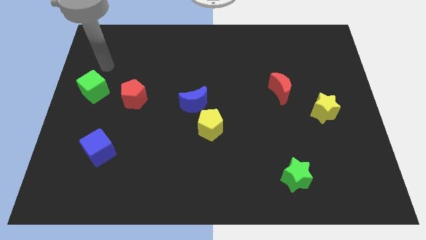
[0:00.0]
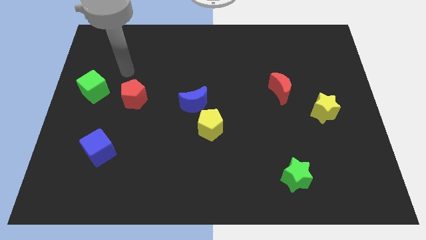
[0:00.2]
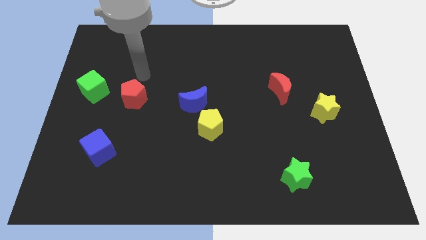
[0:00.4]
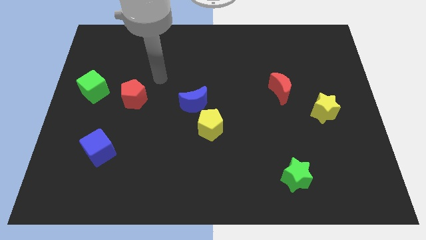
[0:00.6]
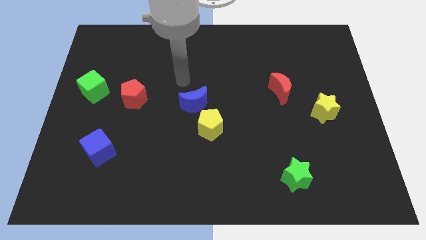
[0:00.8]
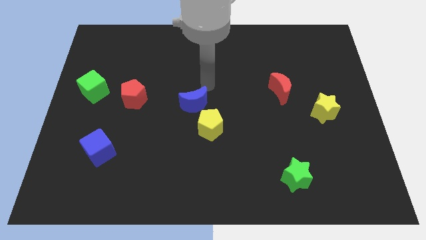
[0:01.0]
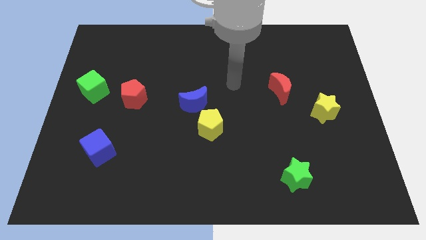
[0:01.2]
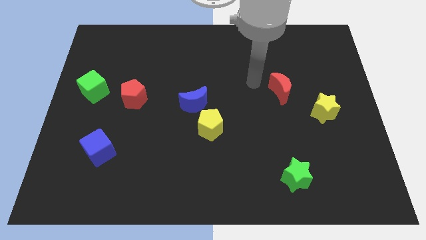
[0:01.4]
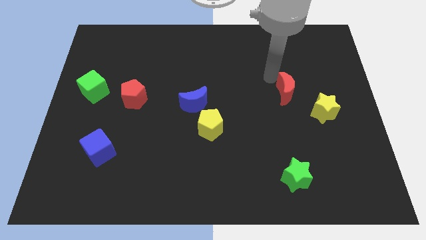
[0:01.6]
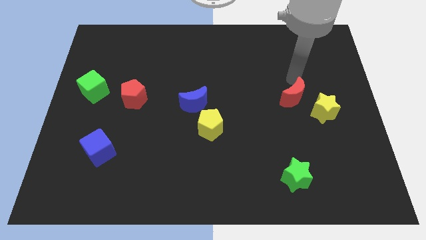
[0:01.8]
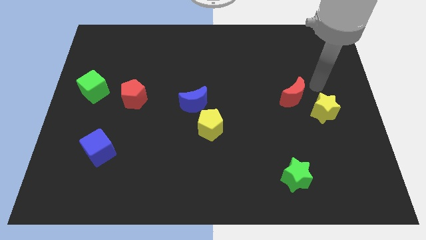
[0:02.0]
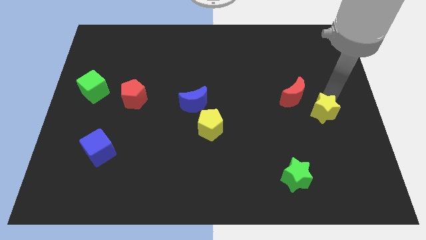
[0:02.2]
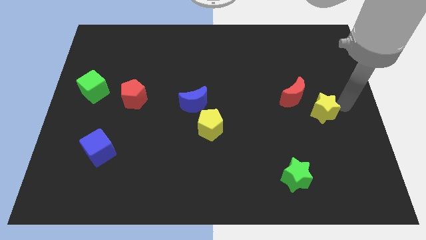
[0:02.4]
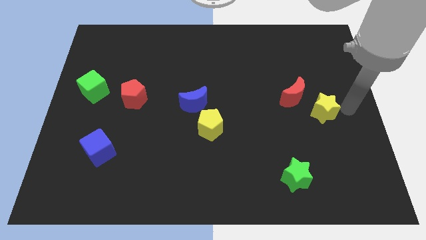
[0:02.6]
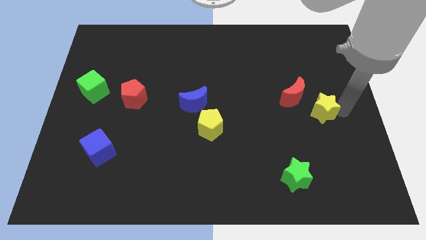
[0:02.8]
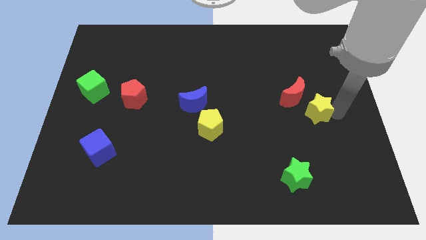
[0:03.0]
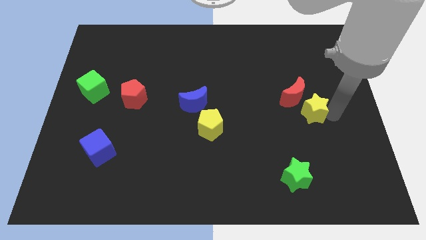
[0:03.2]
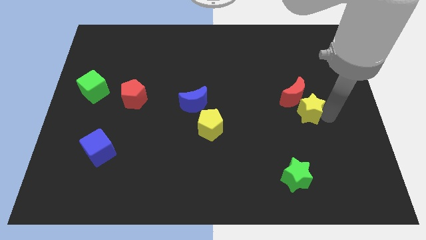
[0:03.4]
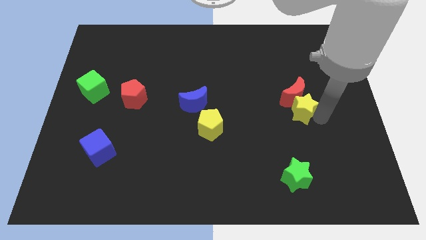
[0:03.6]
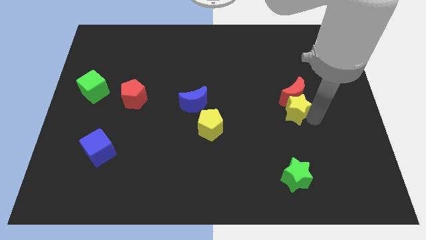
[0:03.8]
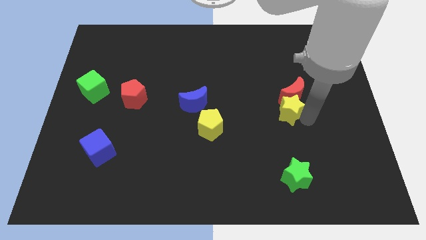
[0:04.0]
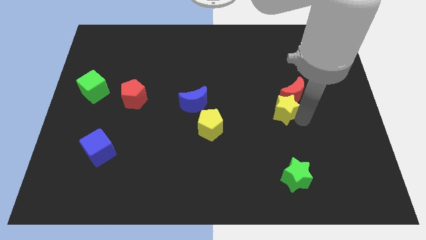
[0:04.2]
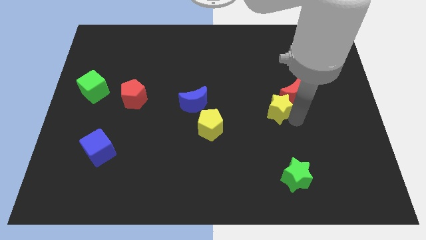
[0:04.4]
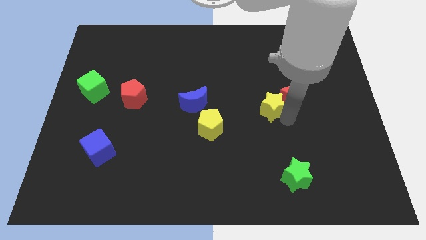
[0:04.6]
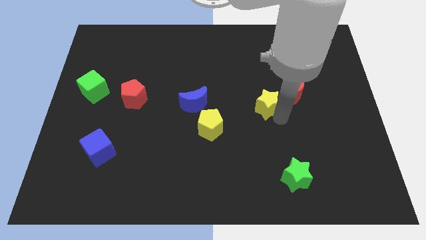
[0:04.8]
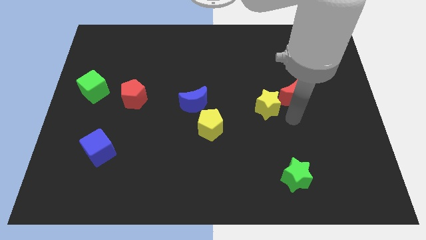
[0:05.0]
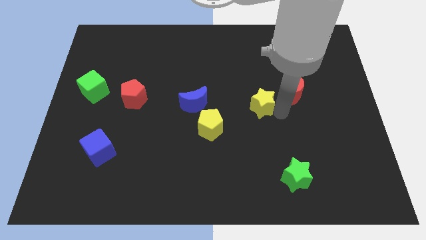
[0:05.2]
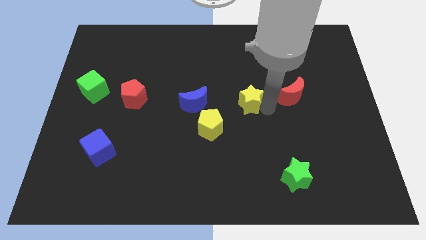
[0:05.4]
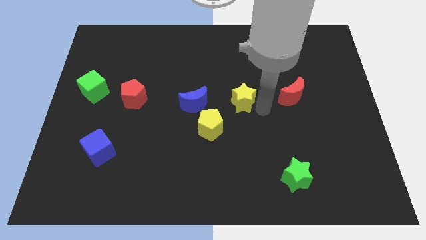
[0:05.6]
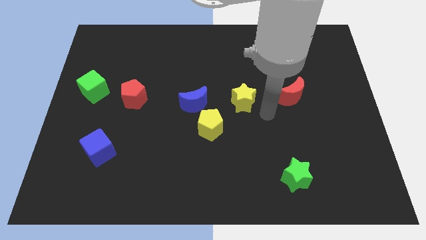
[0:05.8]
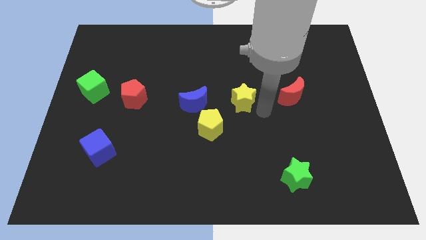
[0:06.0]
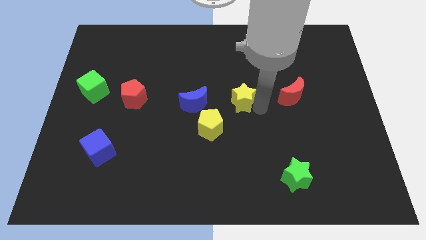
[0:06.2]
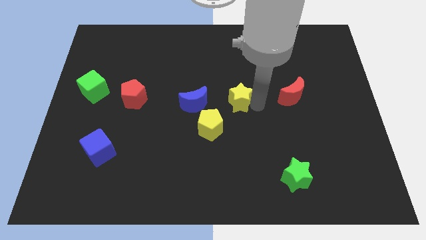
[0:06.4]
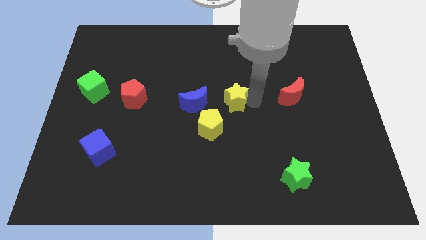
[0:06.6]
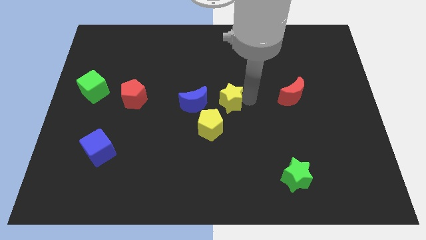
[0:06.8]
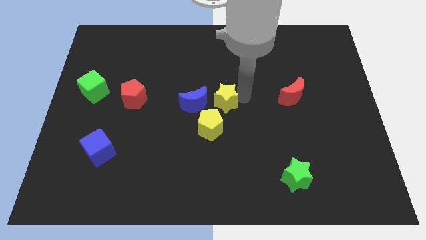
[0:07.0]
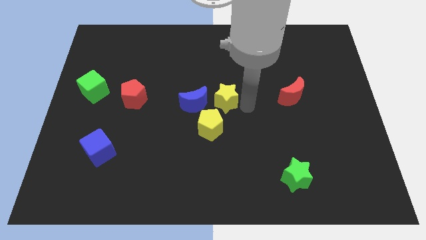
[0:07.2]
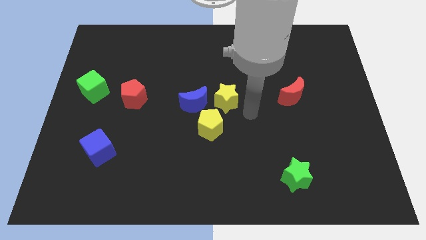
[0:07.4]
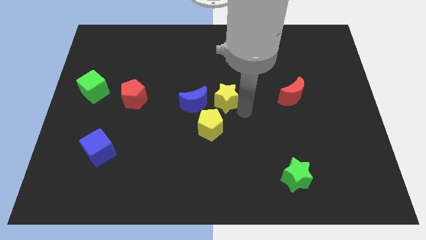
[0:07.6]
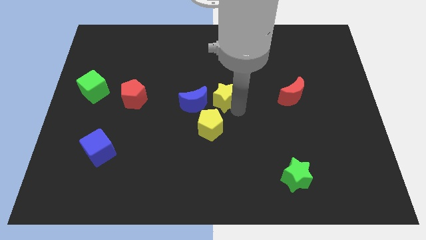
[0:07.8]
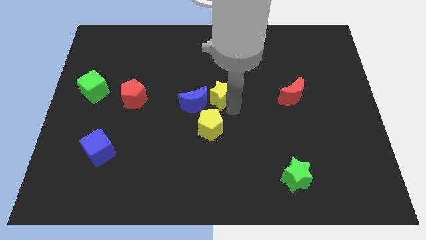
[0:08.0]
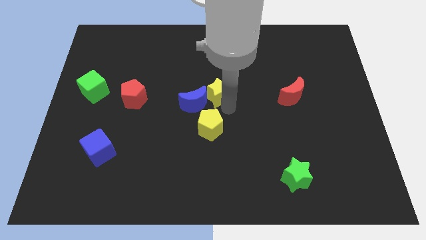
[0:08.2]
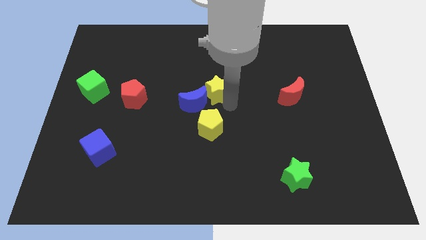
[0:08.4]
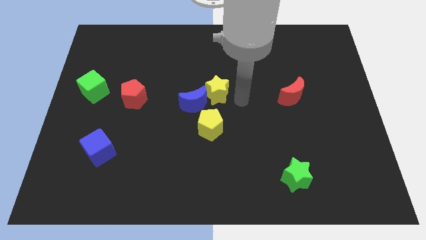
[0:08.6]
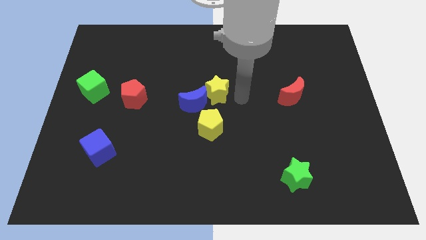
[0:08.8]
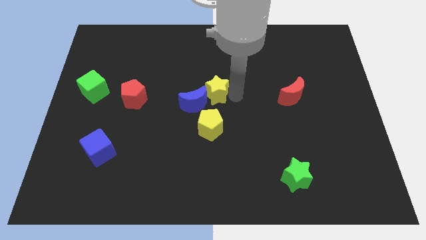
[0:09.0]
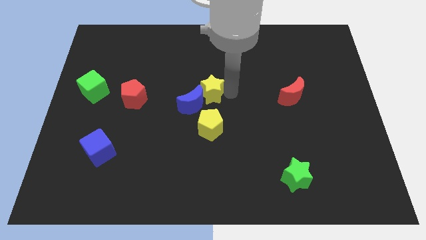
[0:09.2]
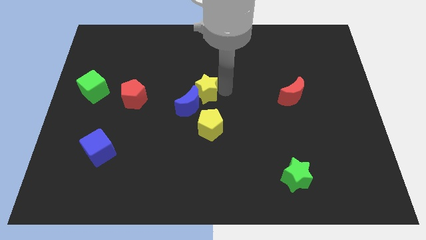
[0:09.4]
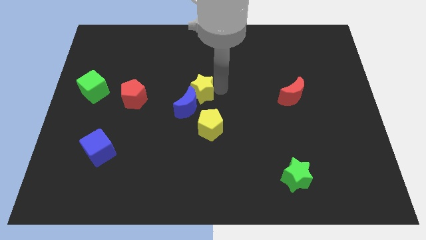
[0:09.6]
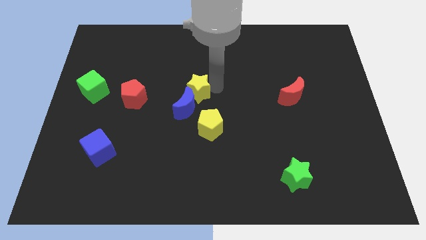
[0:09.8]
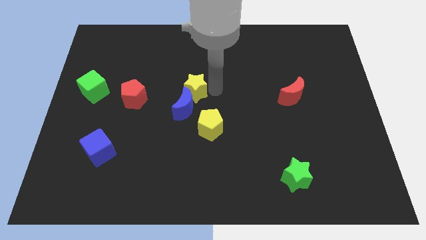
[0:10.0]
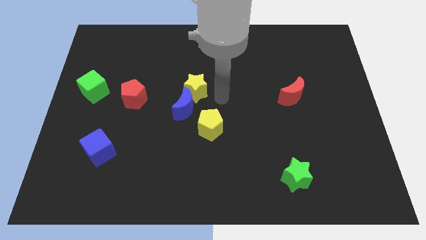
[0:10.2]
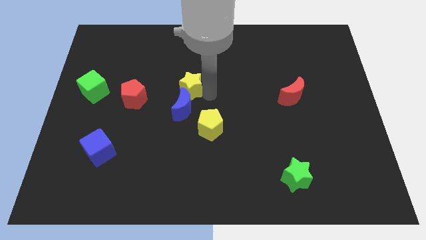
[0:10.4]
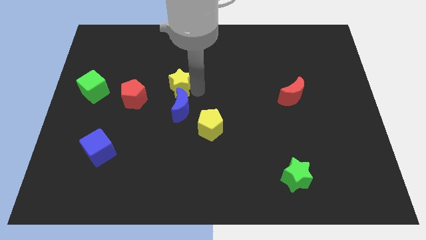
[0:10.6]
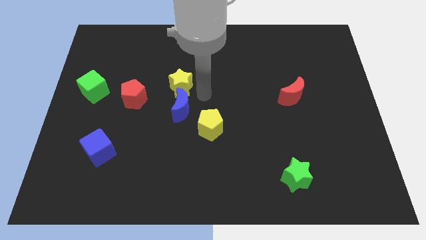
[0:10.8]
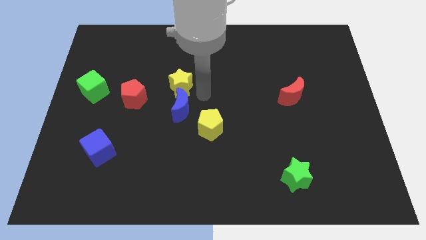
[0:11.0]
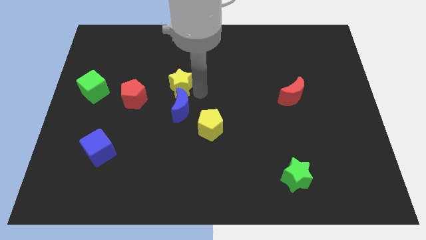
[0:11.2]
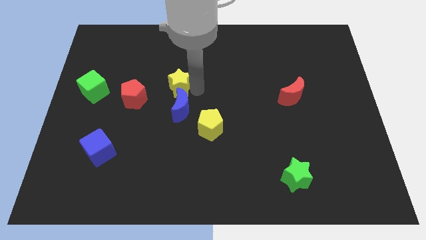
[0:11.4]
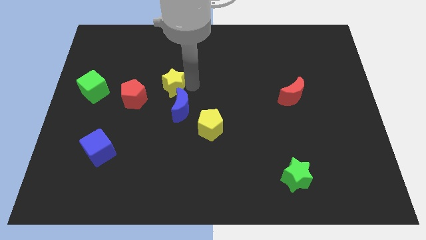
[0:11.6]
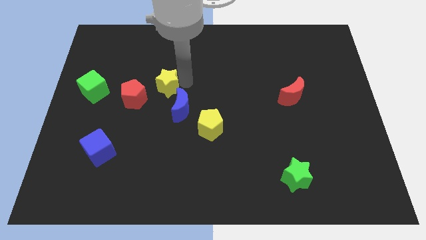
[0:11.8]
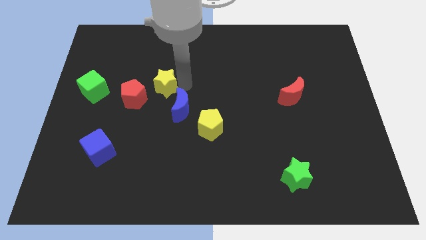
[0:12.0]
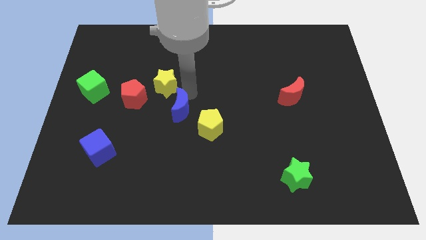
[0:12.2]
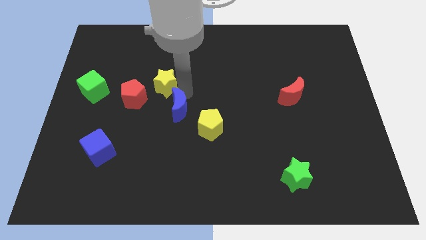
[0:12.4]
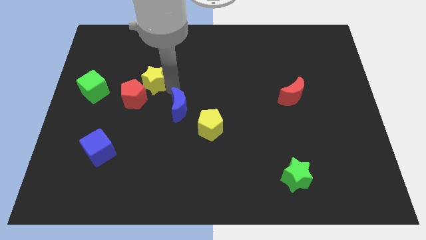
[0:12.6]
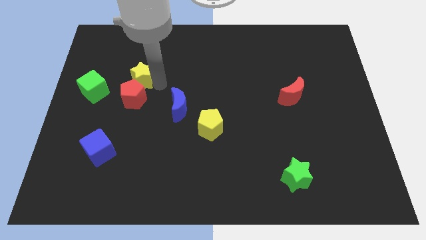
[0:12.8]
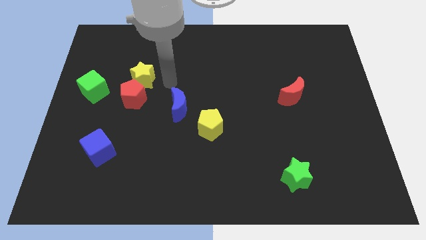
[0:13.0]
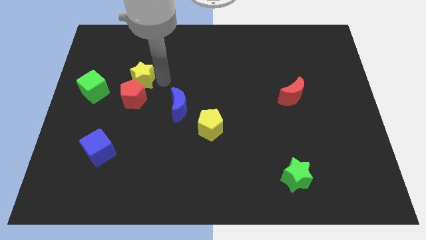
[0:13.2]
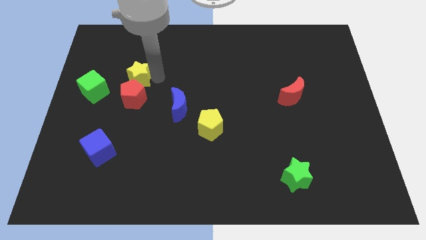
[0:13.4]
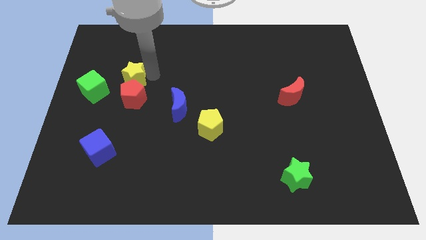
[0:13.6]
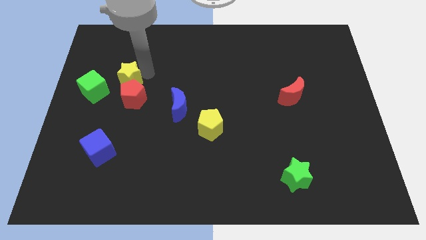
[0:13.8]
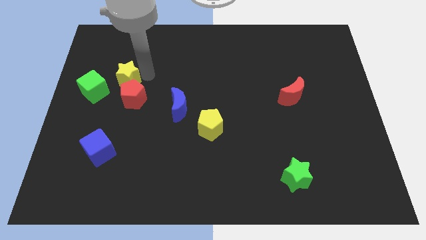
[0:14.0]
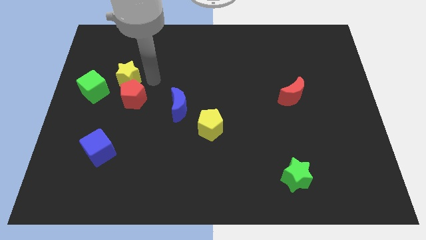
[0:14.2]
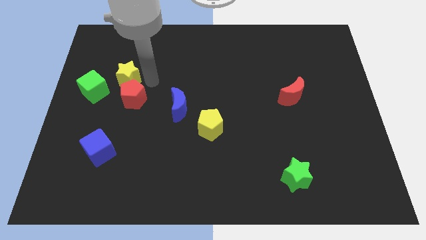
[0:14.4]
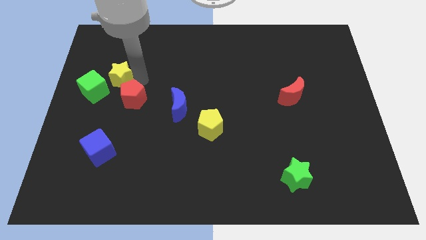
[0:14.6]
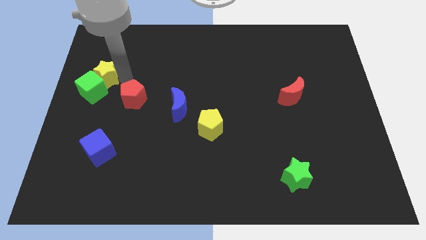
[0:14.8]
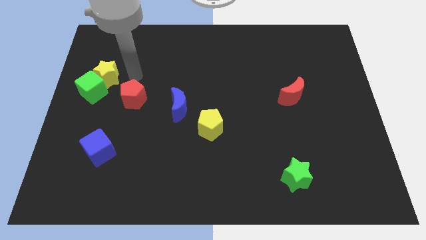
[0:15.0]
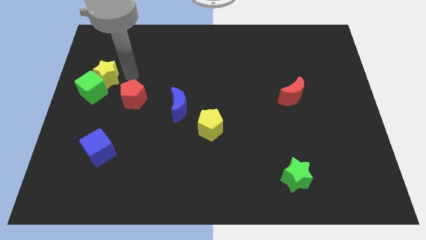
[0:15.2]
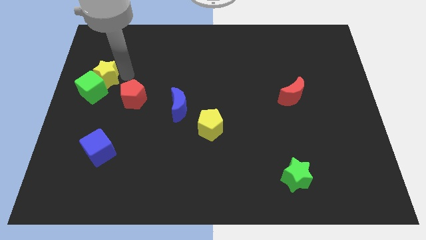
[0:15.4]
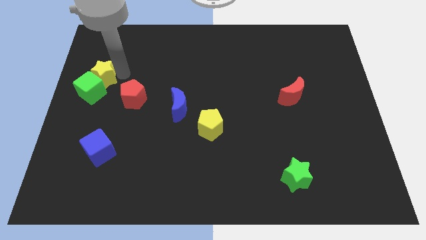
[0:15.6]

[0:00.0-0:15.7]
push the yellow star to the center left
